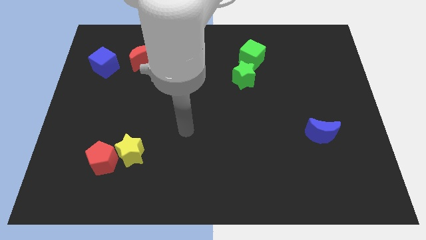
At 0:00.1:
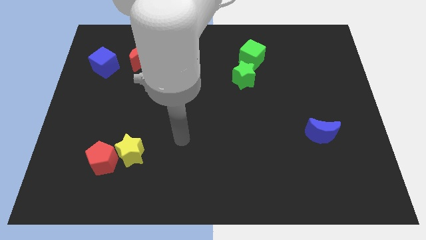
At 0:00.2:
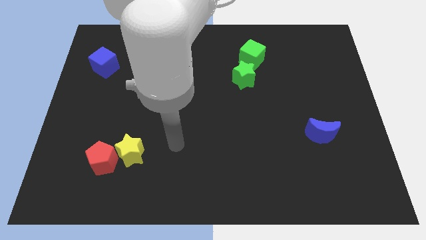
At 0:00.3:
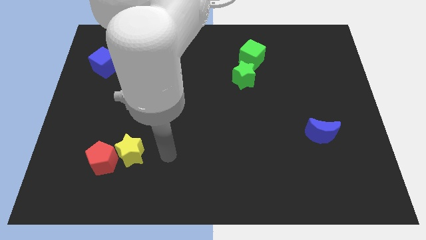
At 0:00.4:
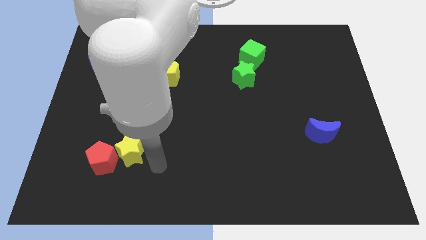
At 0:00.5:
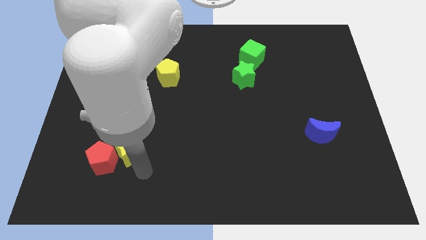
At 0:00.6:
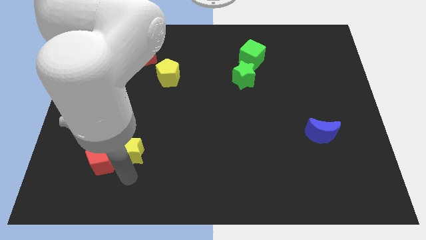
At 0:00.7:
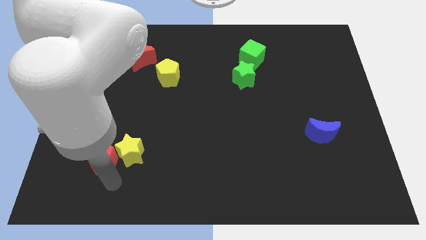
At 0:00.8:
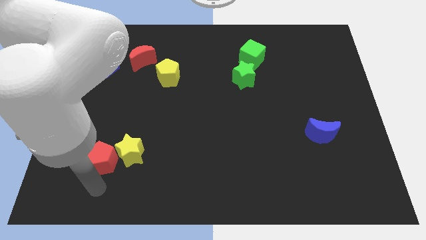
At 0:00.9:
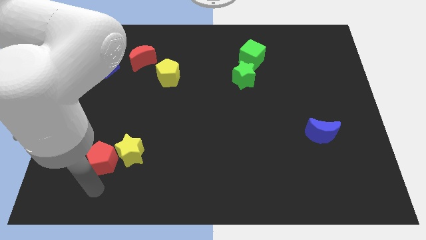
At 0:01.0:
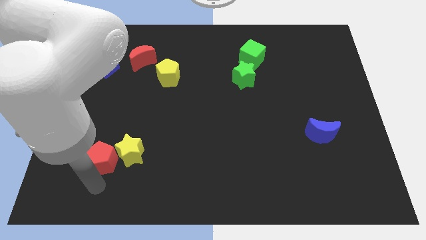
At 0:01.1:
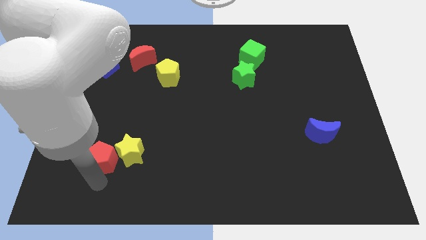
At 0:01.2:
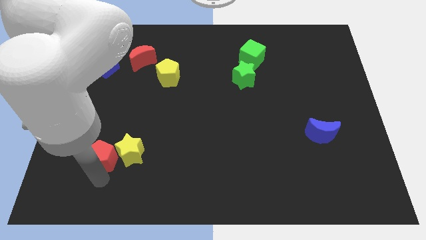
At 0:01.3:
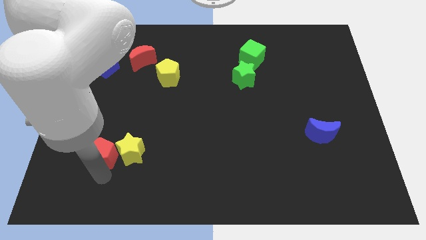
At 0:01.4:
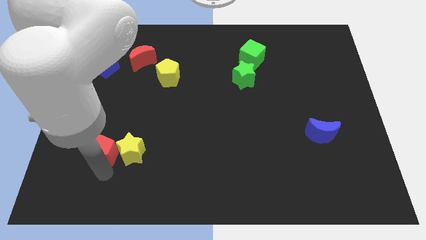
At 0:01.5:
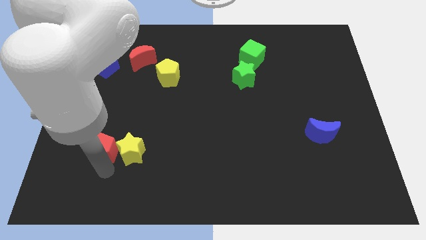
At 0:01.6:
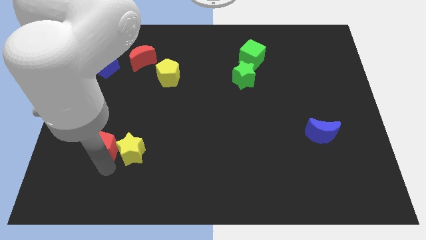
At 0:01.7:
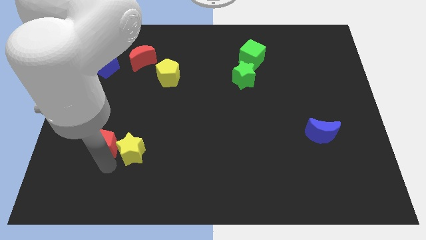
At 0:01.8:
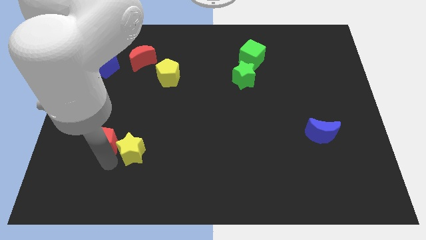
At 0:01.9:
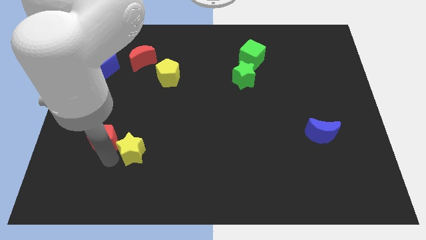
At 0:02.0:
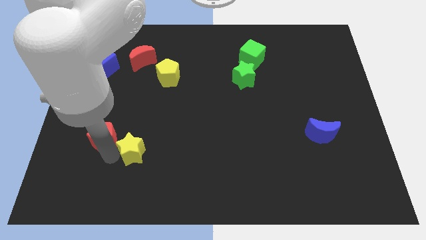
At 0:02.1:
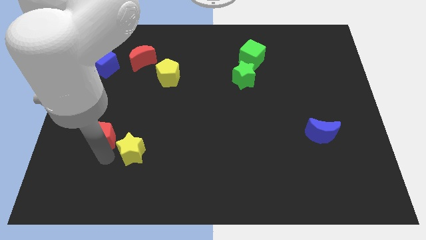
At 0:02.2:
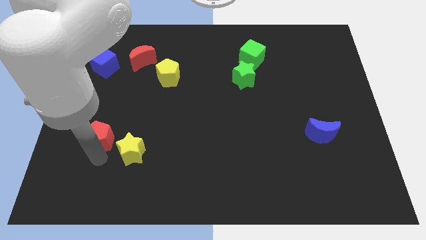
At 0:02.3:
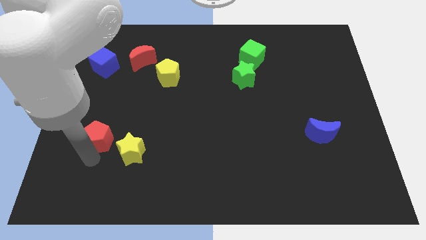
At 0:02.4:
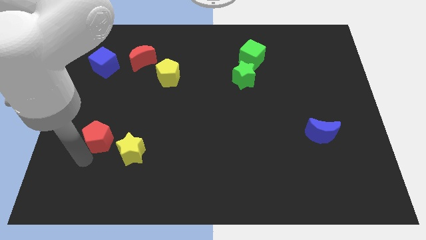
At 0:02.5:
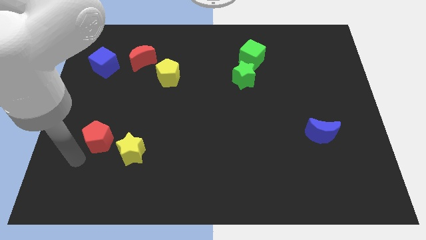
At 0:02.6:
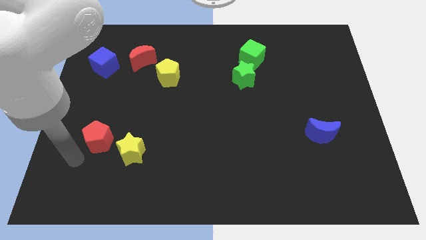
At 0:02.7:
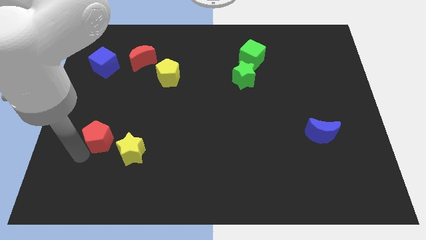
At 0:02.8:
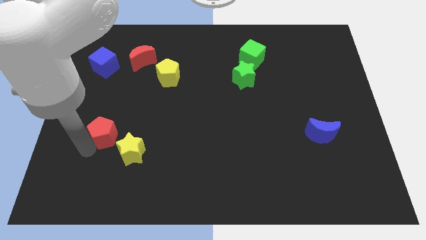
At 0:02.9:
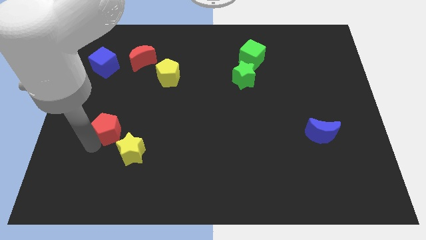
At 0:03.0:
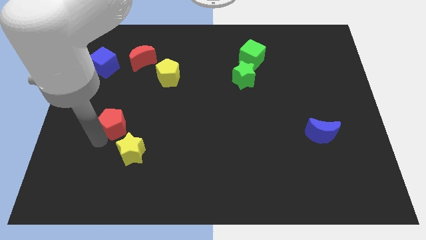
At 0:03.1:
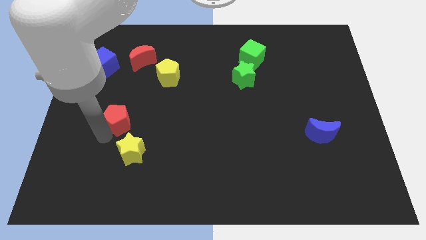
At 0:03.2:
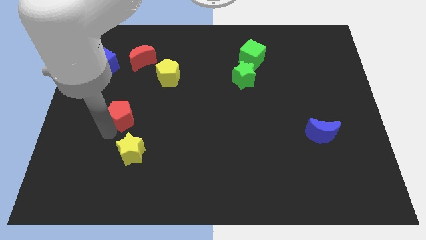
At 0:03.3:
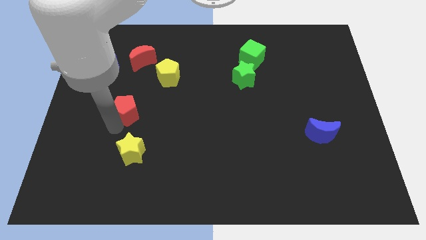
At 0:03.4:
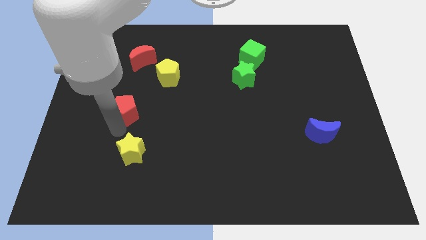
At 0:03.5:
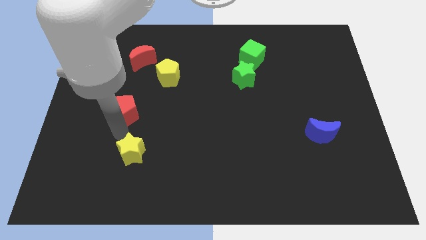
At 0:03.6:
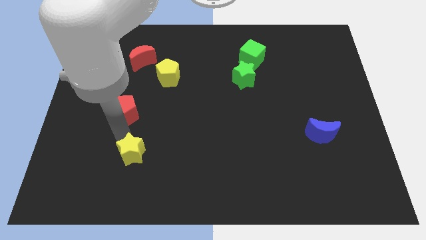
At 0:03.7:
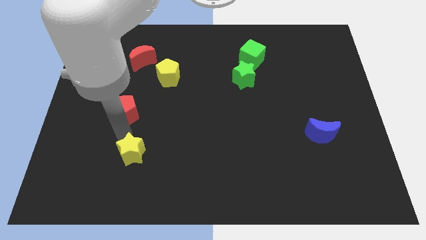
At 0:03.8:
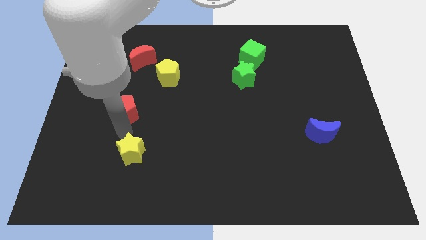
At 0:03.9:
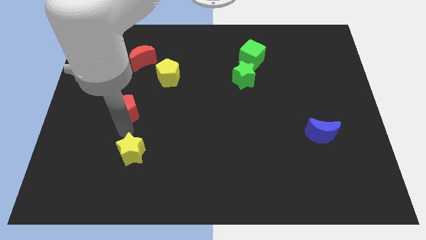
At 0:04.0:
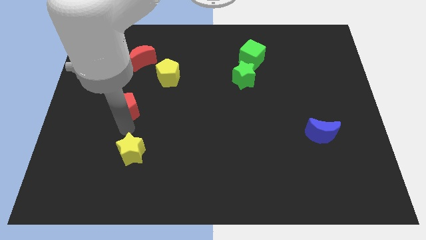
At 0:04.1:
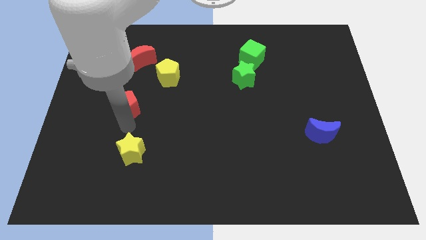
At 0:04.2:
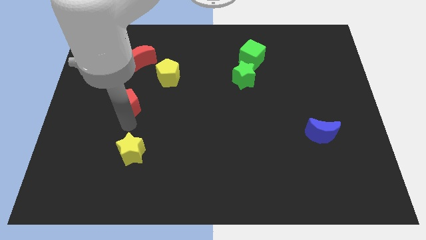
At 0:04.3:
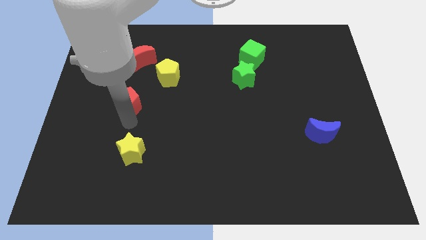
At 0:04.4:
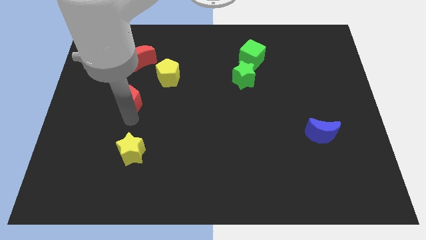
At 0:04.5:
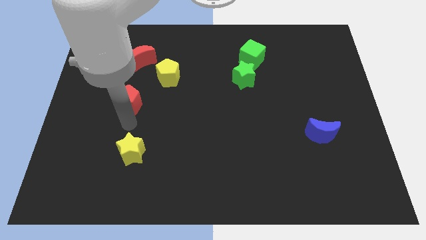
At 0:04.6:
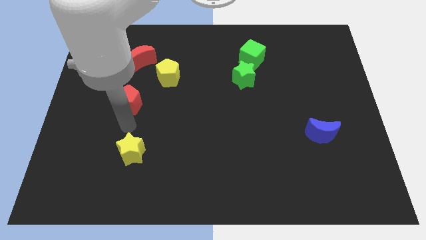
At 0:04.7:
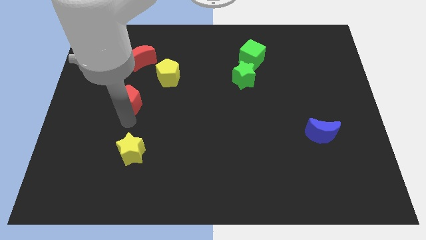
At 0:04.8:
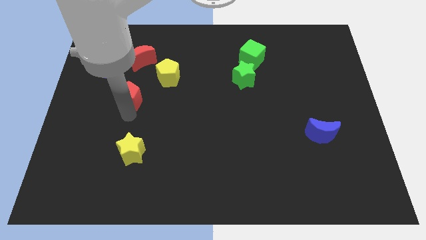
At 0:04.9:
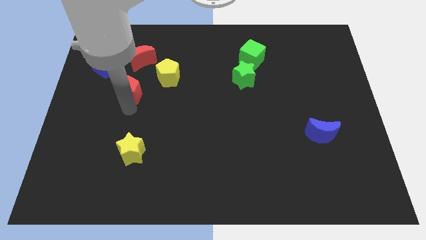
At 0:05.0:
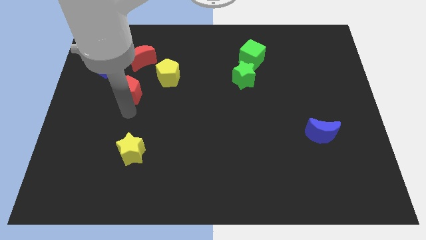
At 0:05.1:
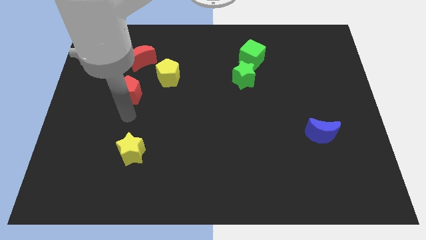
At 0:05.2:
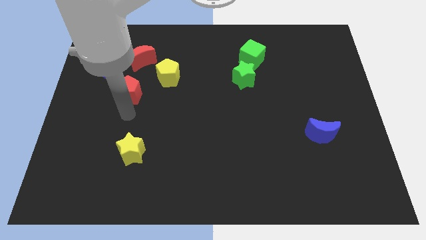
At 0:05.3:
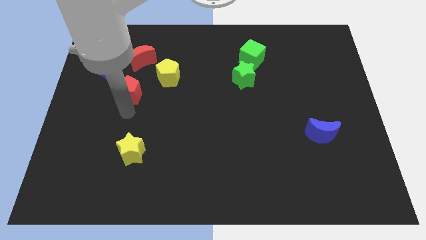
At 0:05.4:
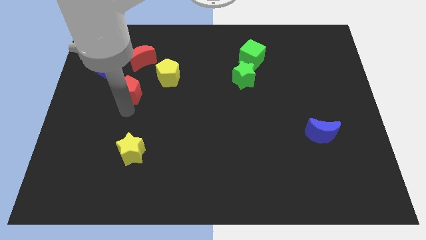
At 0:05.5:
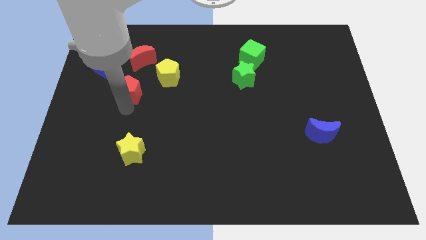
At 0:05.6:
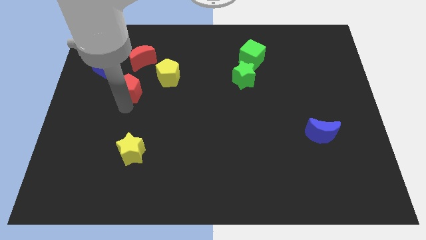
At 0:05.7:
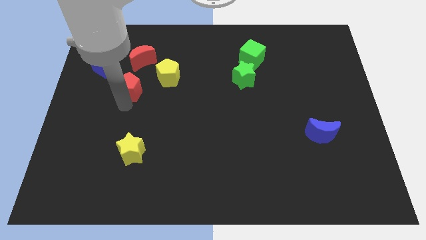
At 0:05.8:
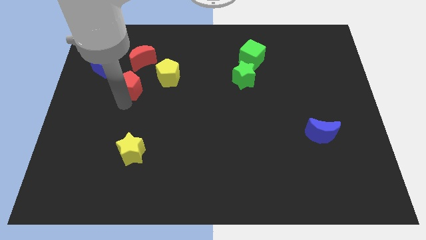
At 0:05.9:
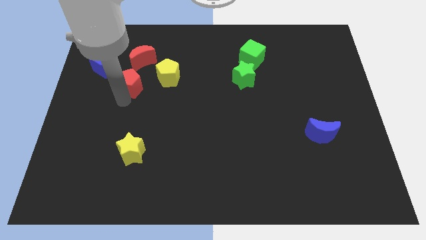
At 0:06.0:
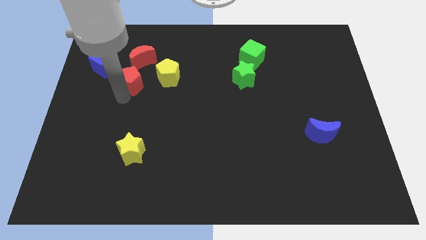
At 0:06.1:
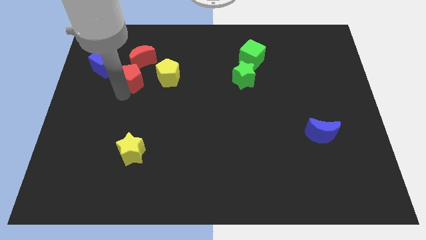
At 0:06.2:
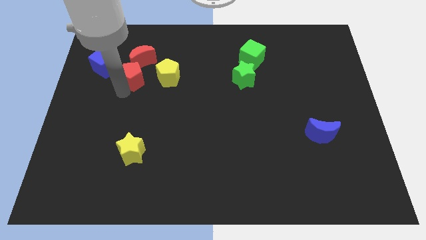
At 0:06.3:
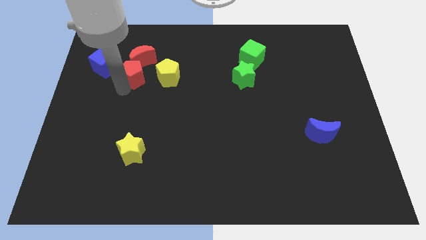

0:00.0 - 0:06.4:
slide the red pentagon close to the red moon
